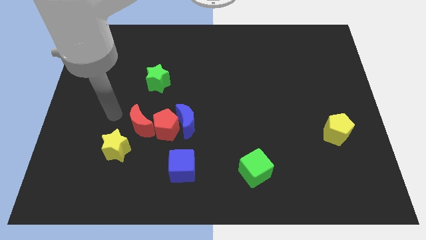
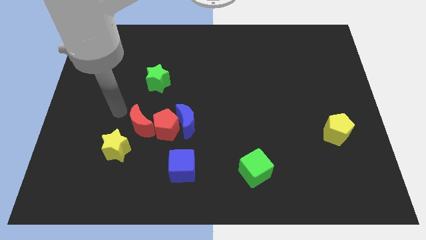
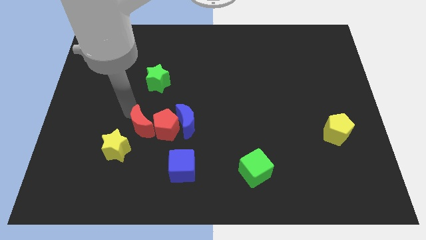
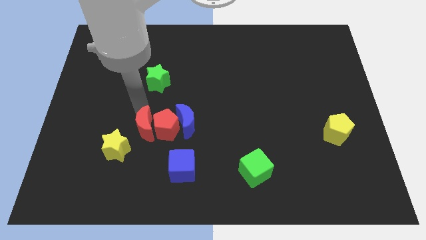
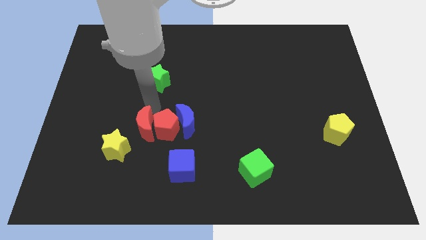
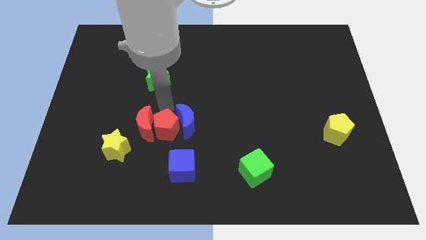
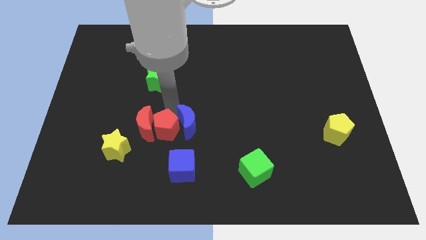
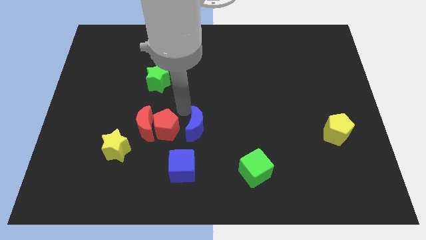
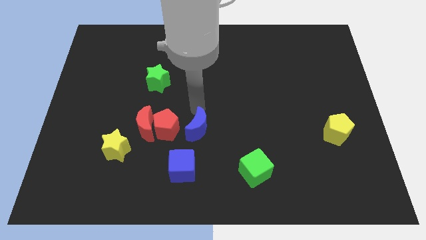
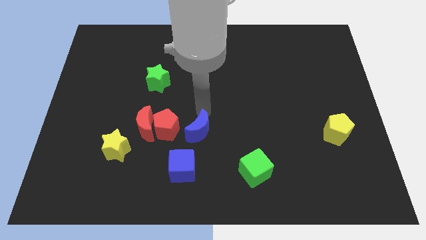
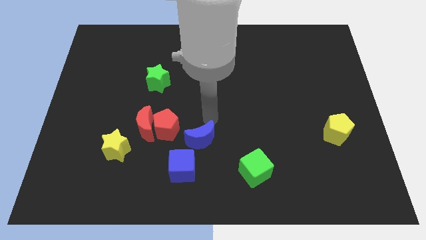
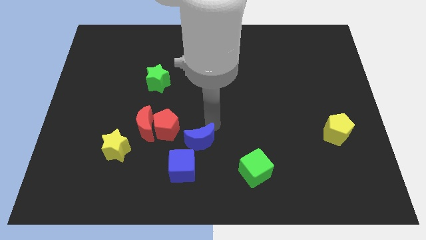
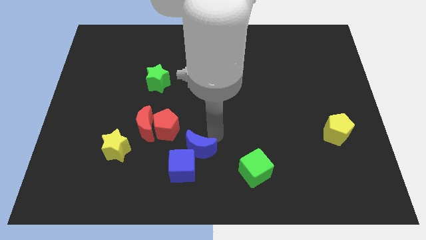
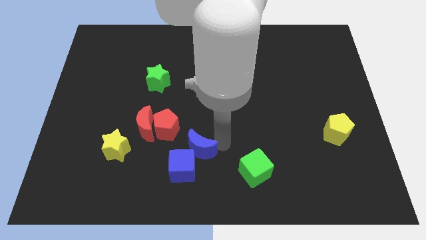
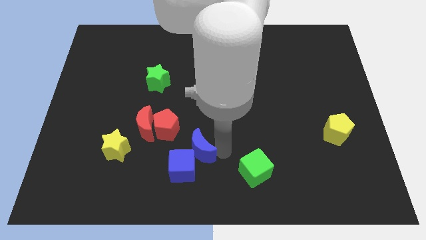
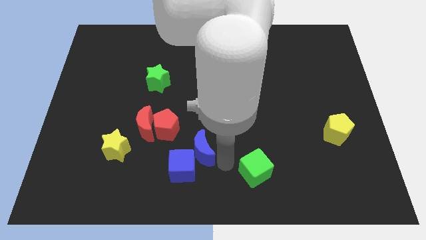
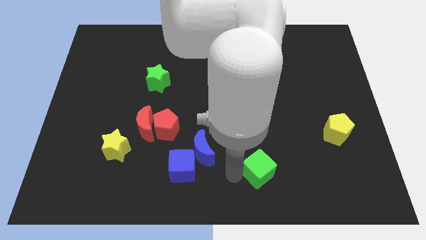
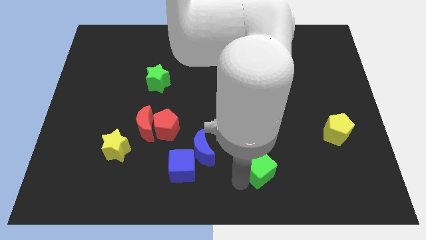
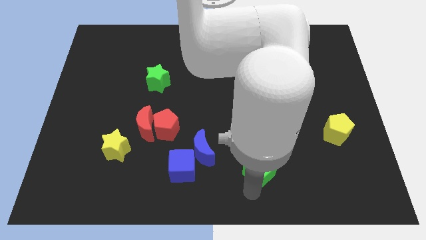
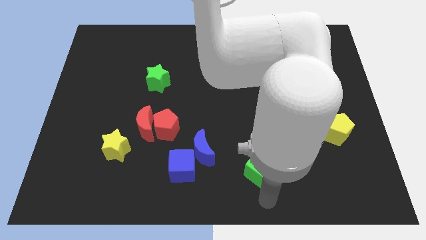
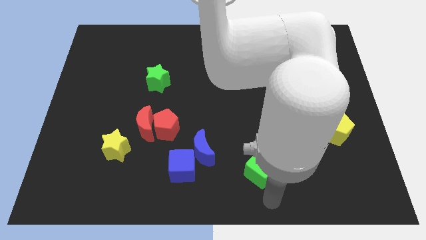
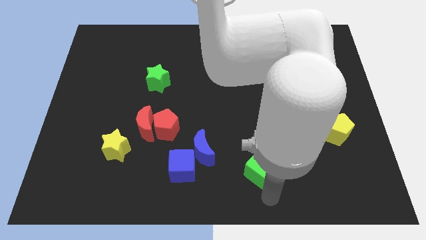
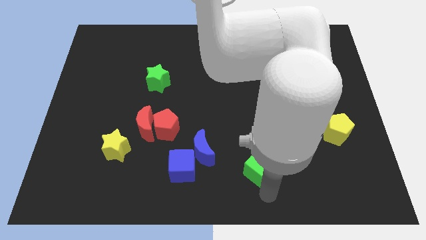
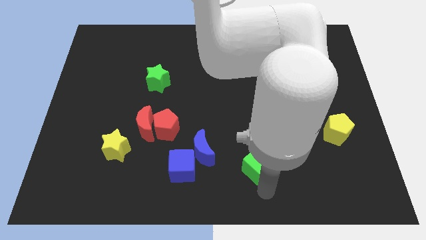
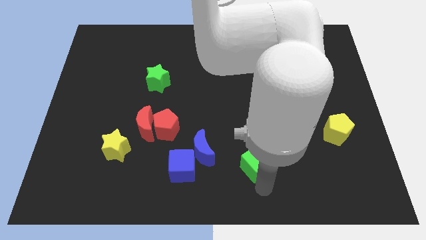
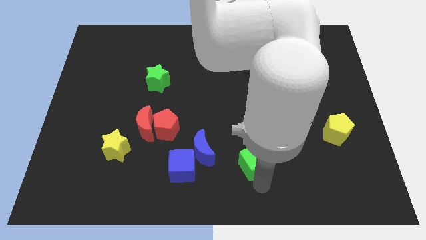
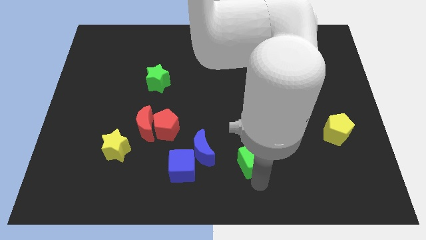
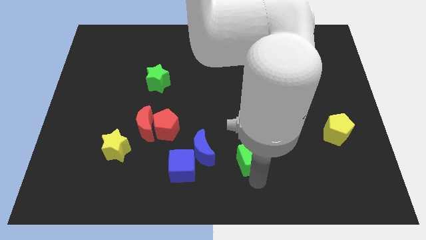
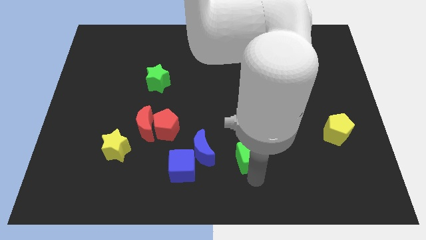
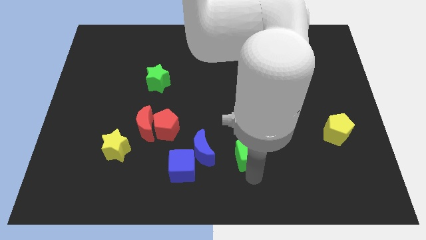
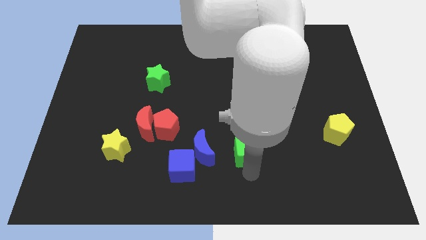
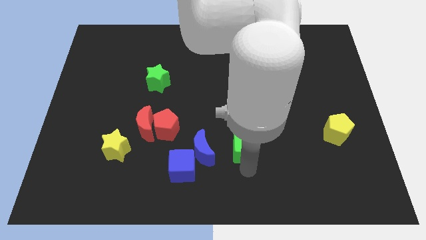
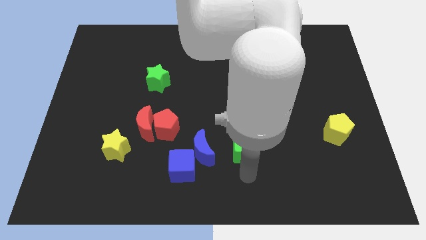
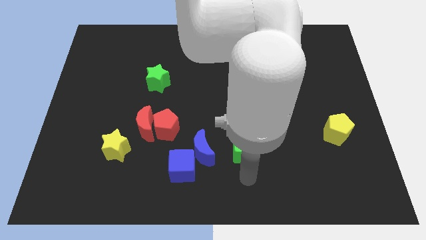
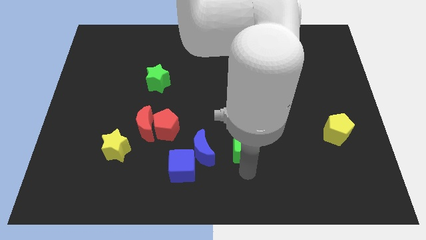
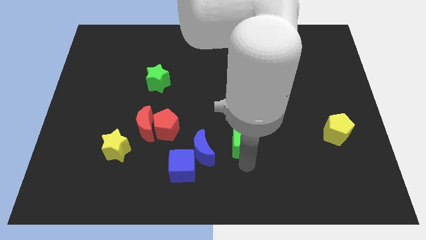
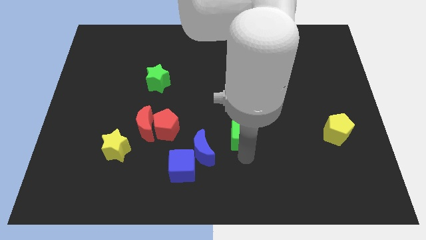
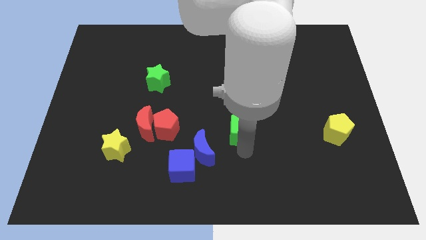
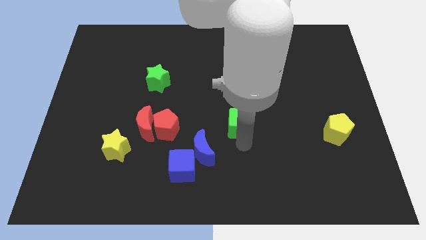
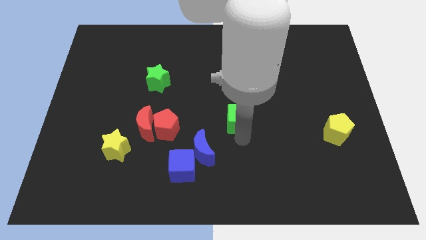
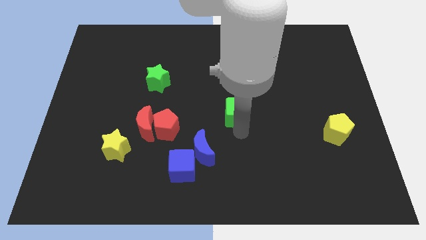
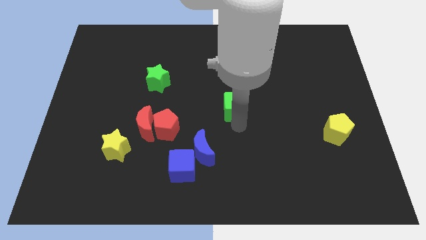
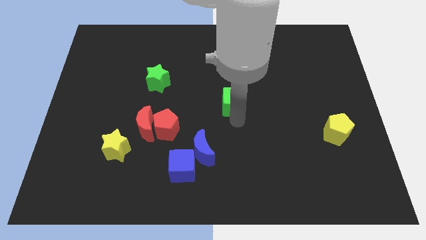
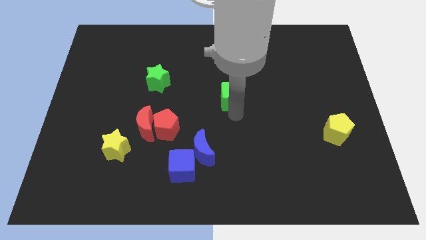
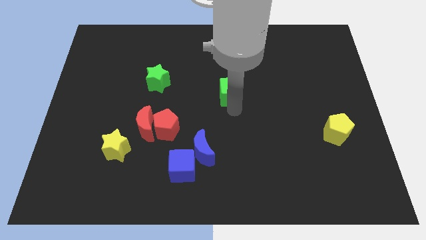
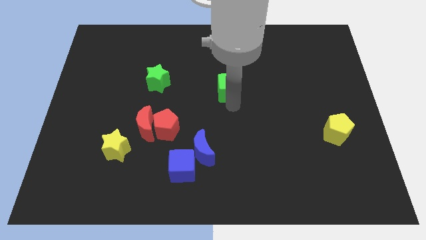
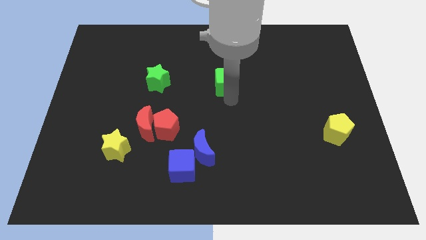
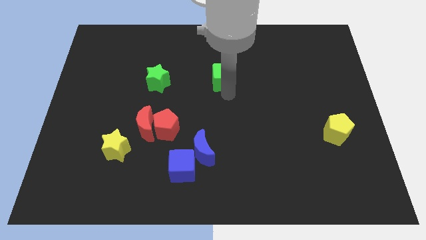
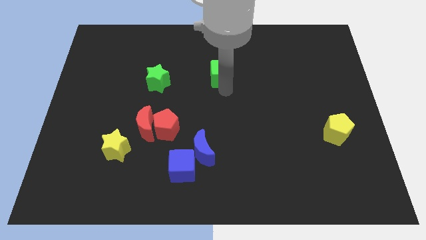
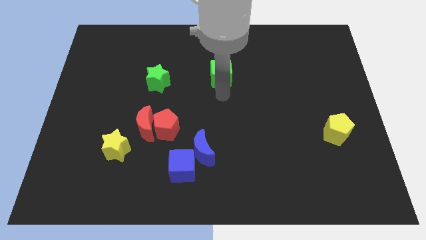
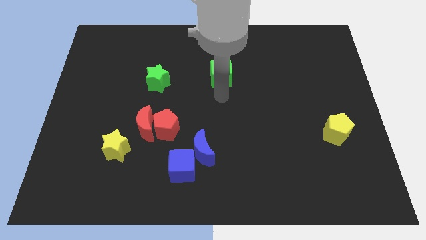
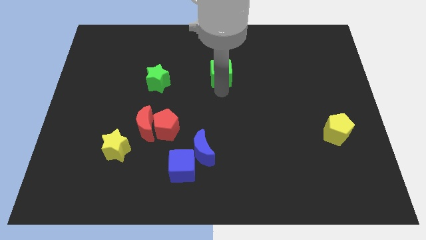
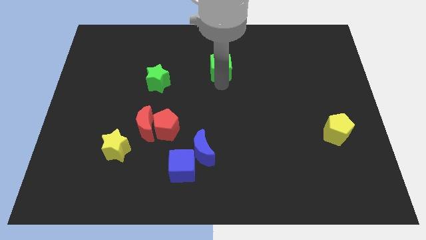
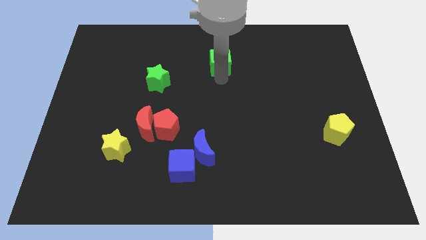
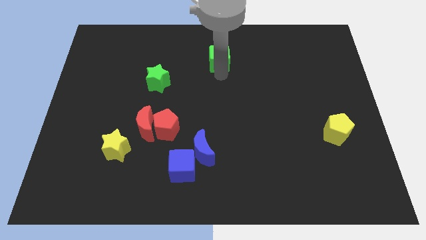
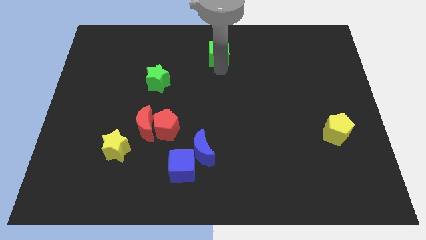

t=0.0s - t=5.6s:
put the green cube to the top
